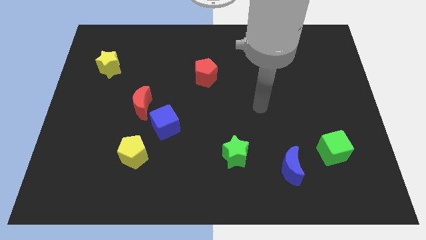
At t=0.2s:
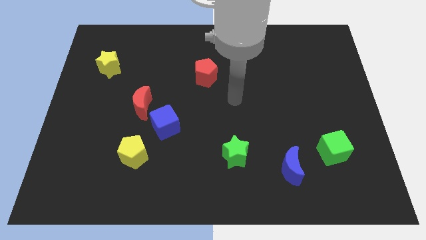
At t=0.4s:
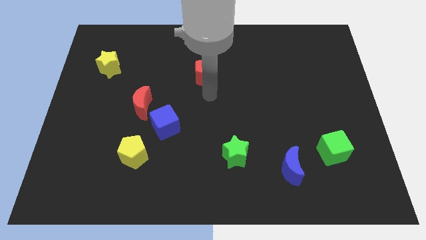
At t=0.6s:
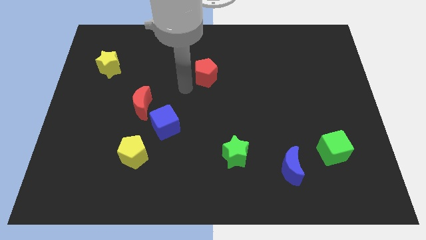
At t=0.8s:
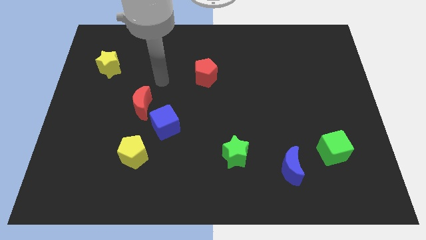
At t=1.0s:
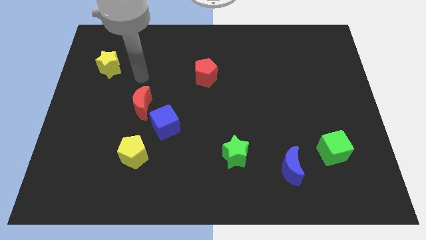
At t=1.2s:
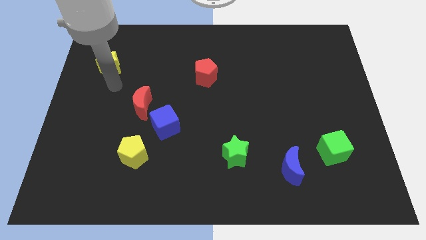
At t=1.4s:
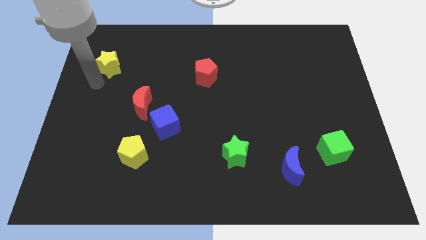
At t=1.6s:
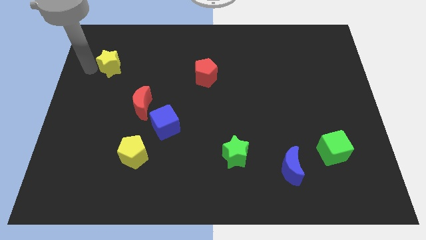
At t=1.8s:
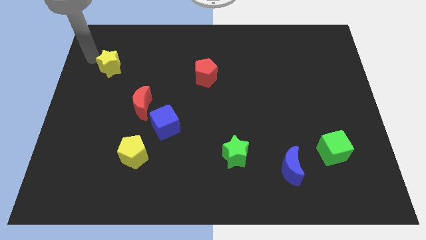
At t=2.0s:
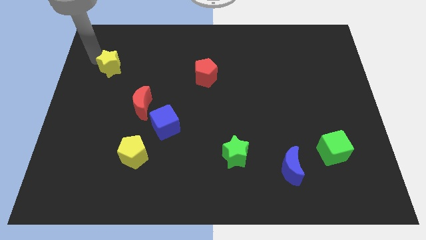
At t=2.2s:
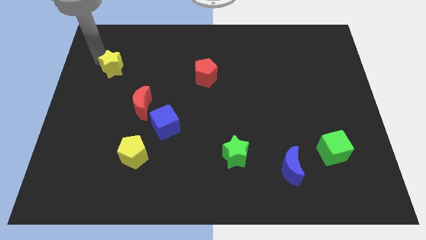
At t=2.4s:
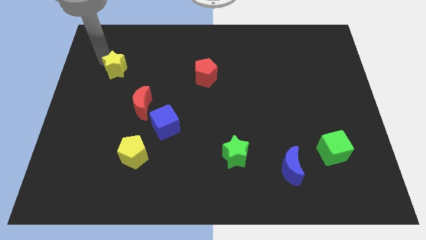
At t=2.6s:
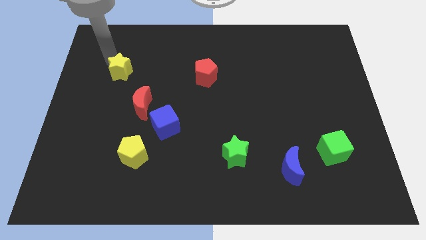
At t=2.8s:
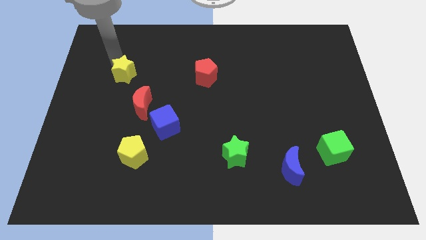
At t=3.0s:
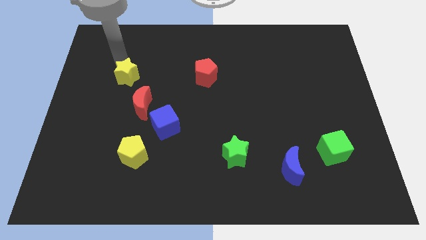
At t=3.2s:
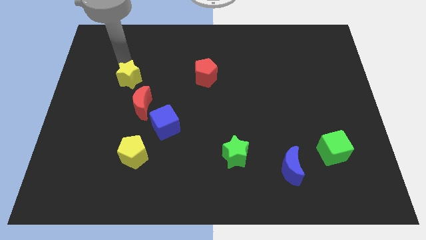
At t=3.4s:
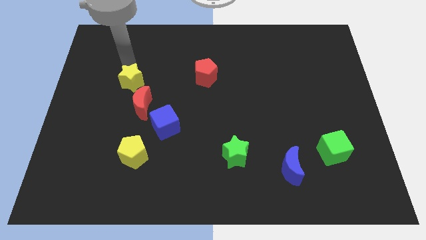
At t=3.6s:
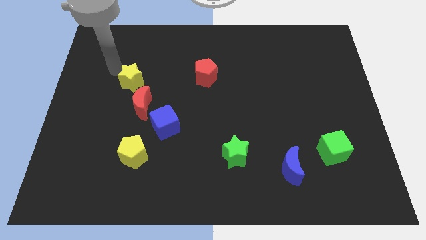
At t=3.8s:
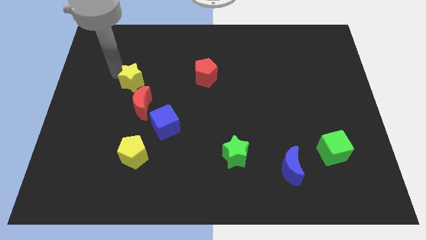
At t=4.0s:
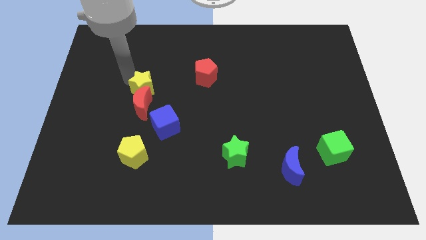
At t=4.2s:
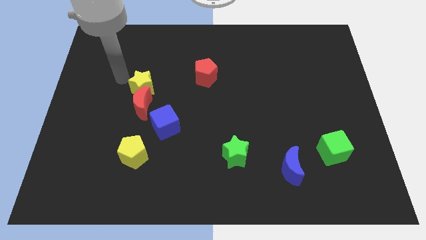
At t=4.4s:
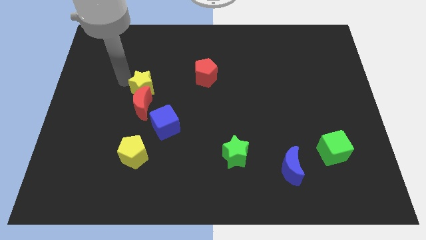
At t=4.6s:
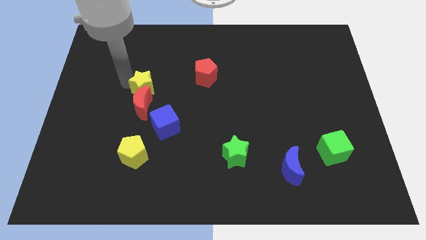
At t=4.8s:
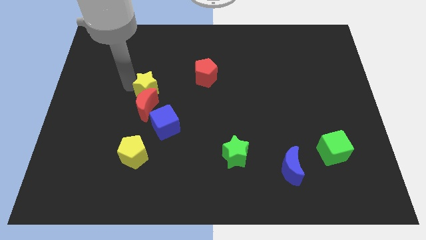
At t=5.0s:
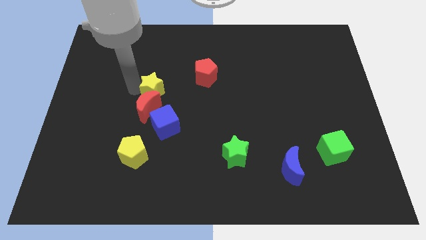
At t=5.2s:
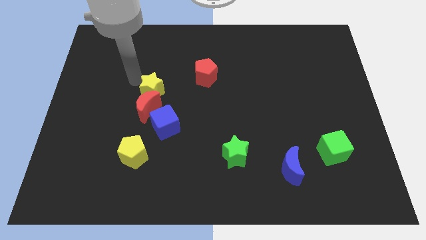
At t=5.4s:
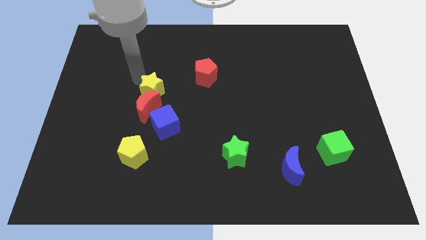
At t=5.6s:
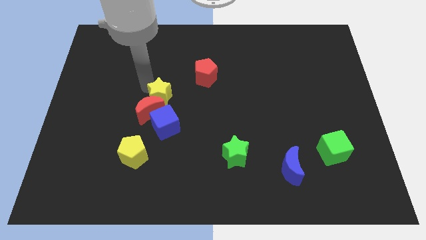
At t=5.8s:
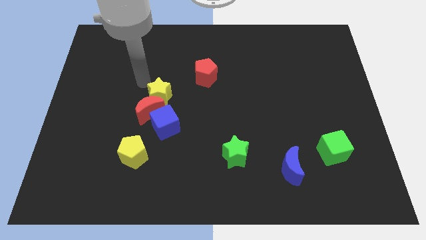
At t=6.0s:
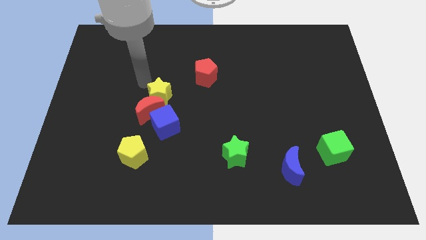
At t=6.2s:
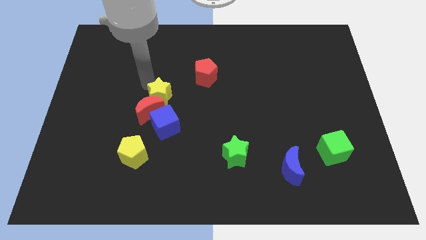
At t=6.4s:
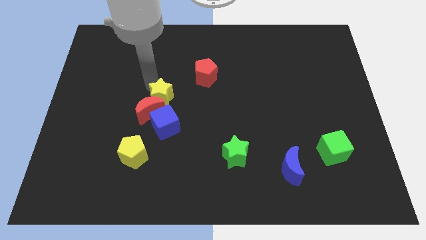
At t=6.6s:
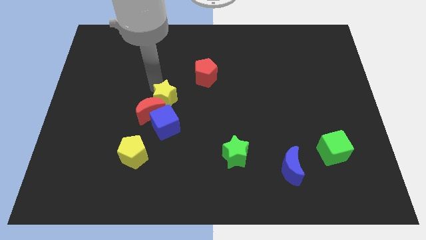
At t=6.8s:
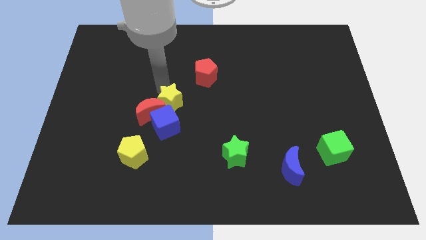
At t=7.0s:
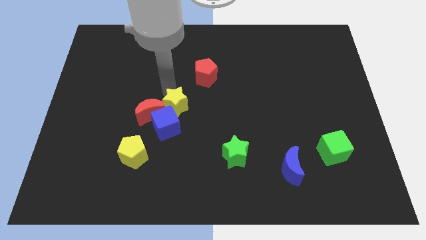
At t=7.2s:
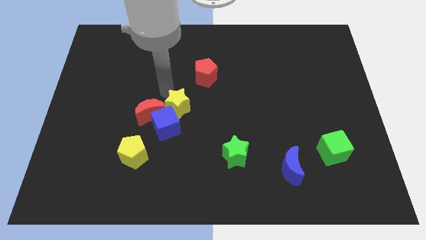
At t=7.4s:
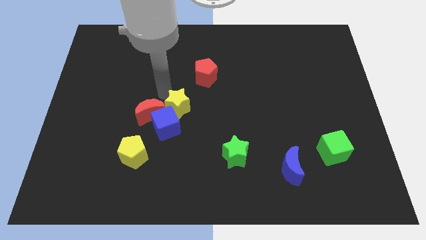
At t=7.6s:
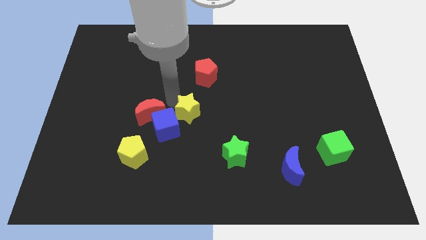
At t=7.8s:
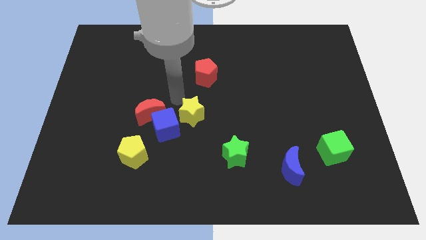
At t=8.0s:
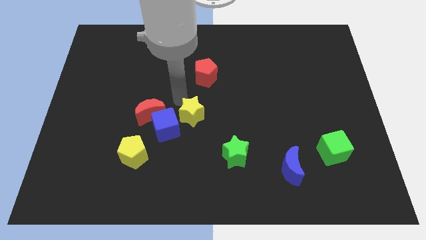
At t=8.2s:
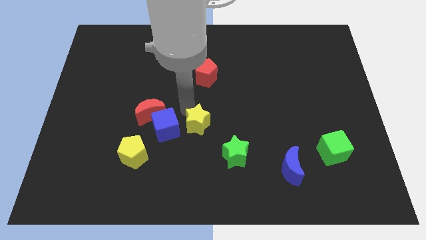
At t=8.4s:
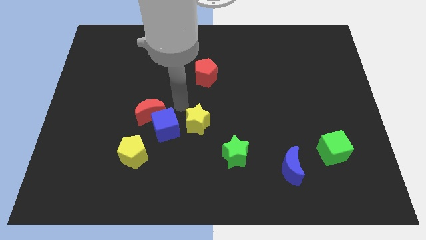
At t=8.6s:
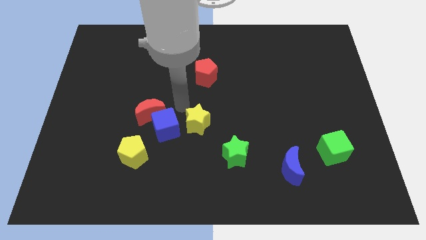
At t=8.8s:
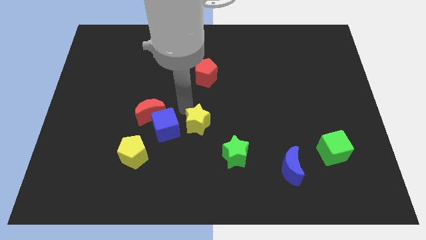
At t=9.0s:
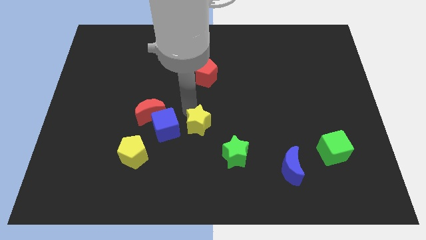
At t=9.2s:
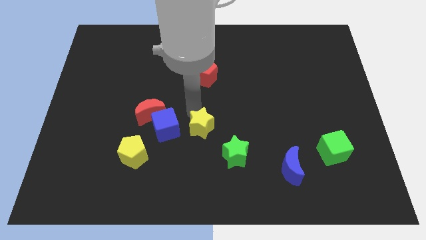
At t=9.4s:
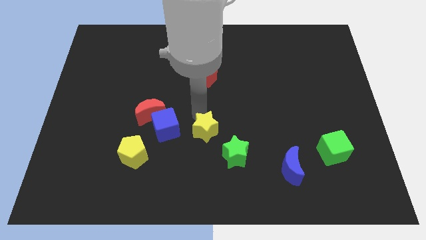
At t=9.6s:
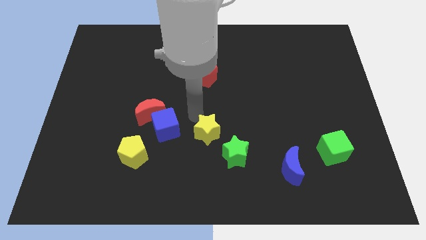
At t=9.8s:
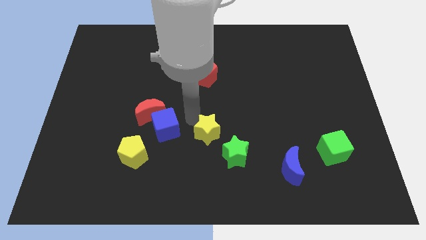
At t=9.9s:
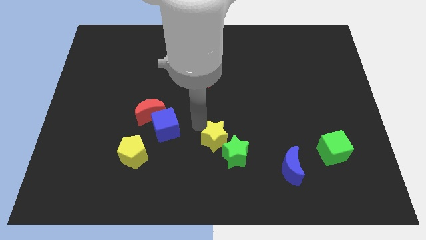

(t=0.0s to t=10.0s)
put the yellow star next to the green star

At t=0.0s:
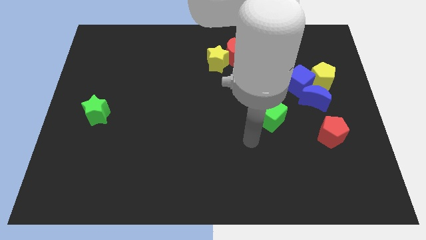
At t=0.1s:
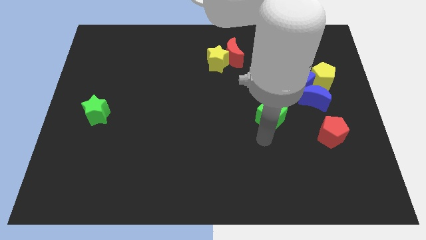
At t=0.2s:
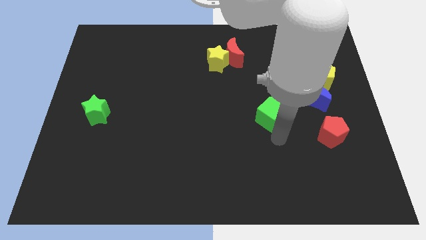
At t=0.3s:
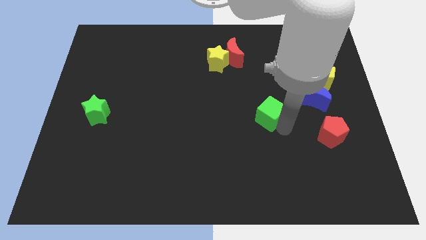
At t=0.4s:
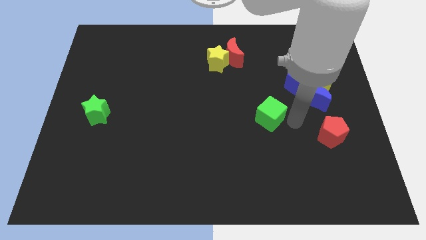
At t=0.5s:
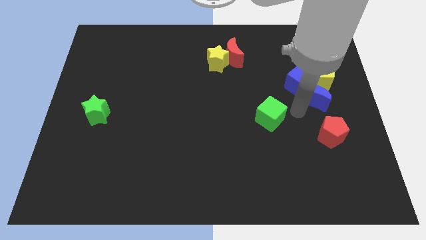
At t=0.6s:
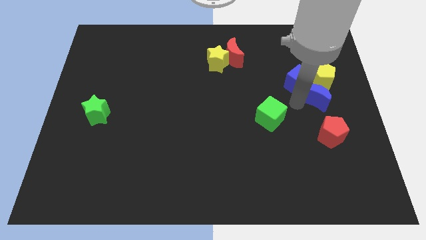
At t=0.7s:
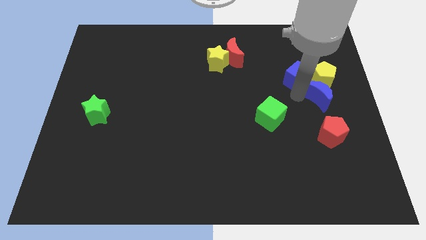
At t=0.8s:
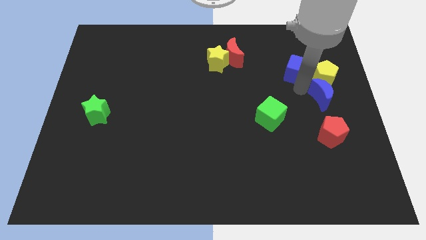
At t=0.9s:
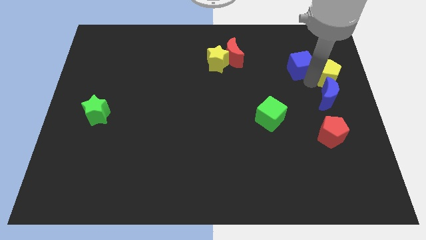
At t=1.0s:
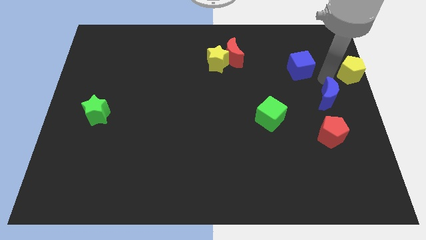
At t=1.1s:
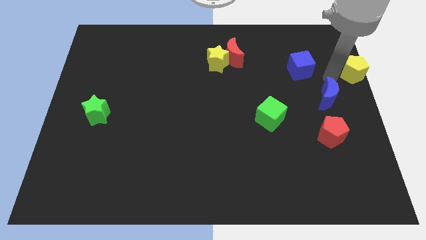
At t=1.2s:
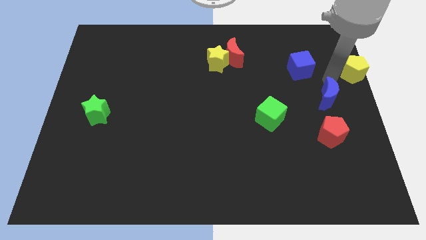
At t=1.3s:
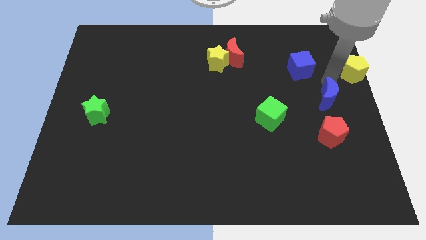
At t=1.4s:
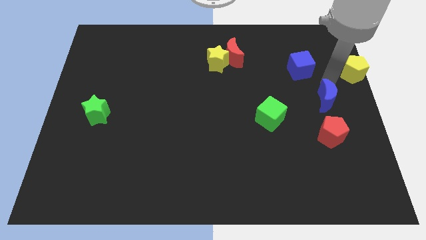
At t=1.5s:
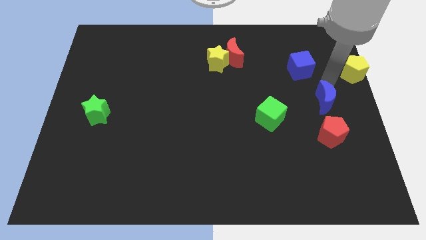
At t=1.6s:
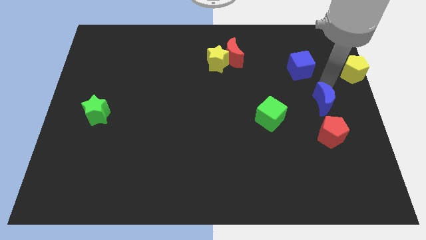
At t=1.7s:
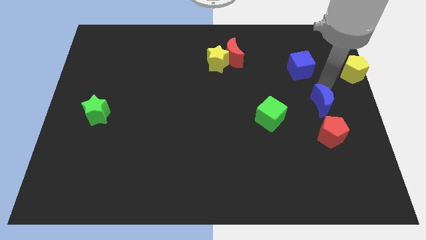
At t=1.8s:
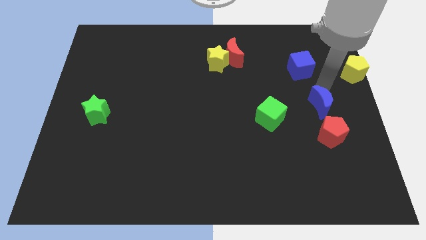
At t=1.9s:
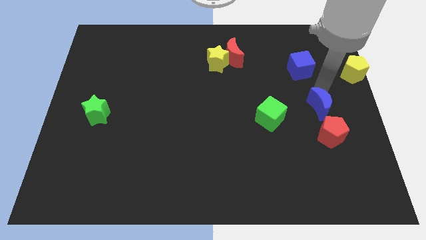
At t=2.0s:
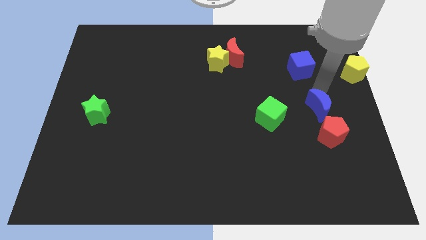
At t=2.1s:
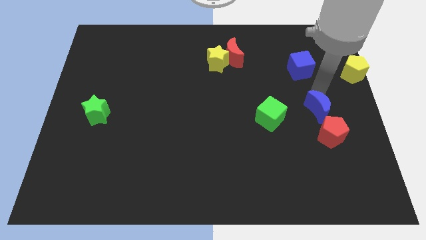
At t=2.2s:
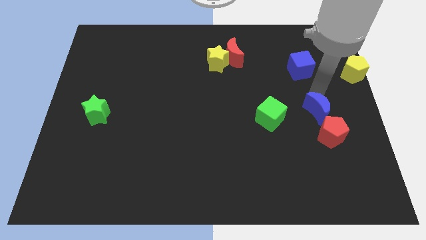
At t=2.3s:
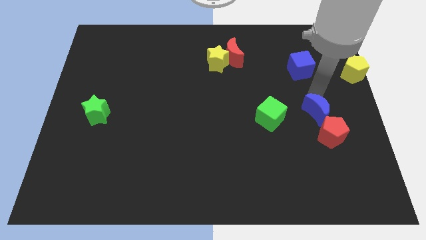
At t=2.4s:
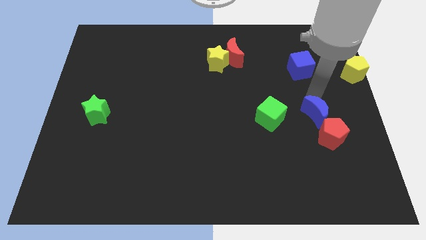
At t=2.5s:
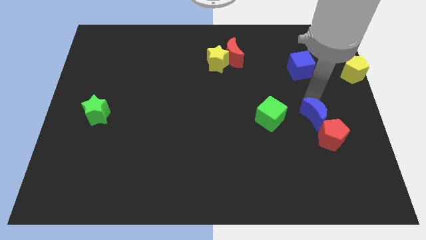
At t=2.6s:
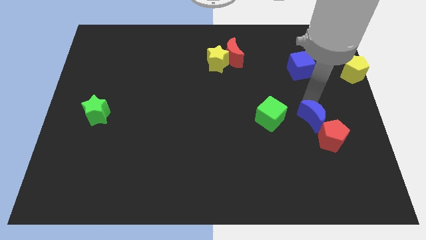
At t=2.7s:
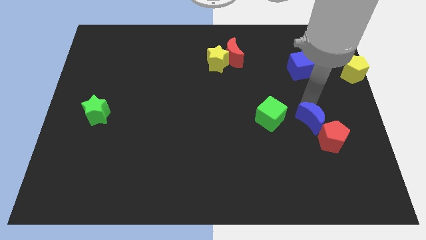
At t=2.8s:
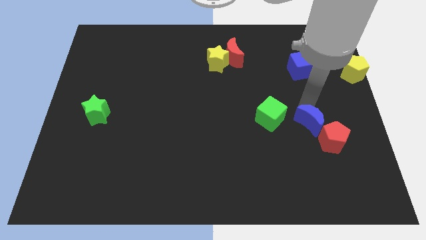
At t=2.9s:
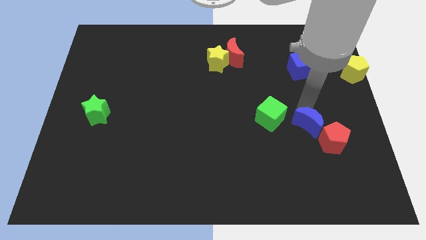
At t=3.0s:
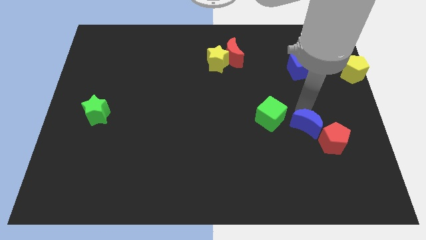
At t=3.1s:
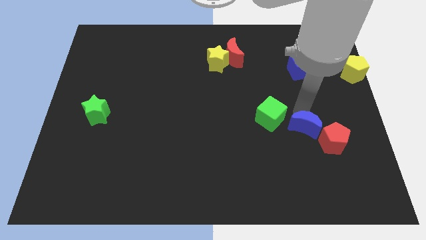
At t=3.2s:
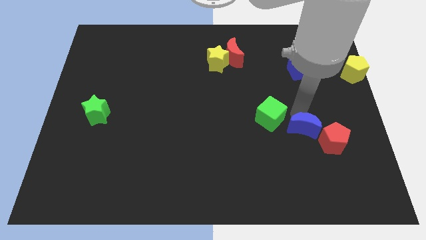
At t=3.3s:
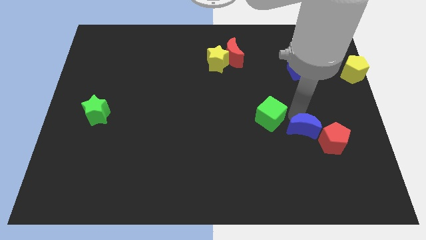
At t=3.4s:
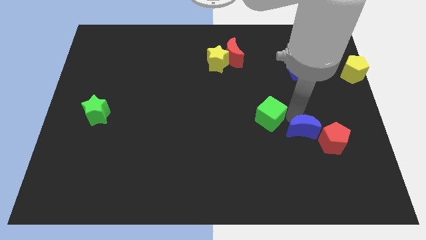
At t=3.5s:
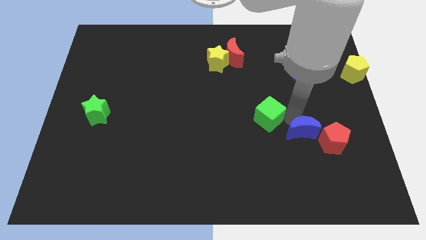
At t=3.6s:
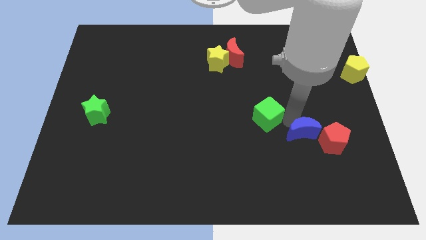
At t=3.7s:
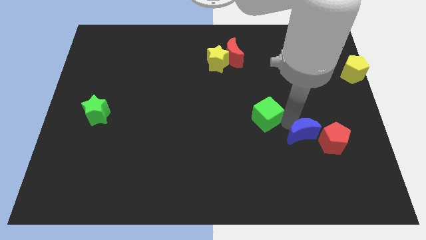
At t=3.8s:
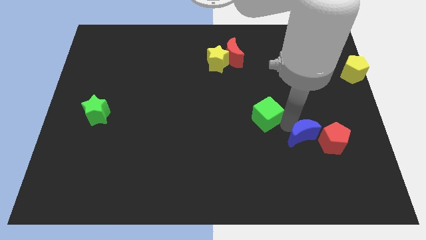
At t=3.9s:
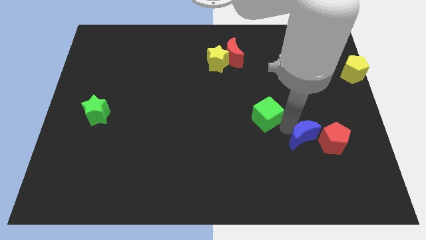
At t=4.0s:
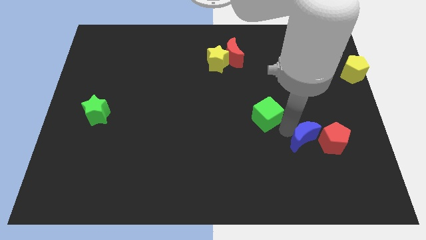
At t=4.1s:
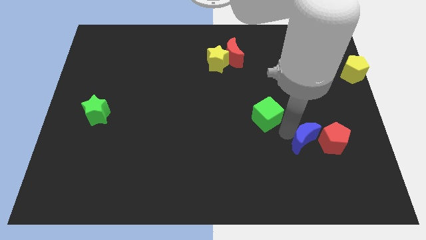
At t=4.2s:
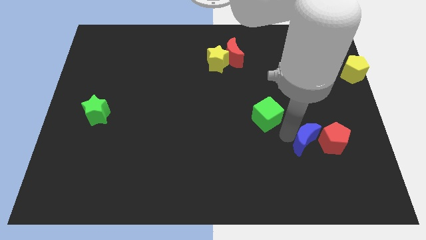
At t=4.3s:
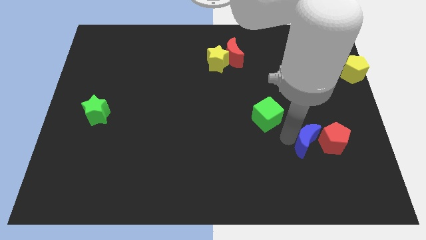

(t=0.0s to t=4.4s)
put the blue moon towards the red pentagon
